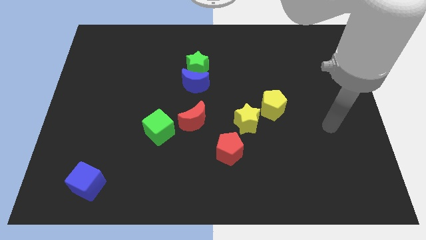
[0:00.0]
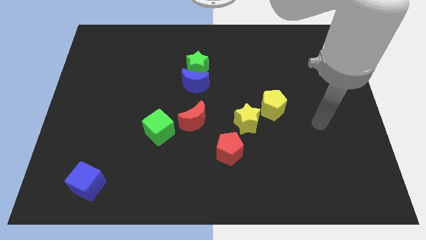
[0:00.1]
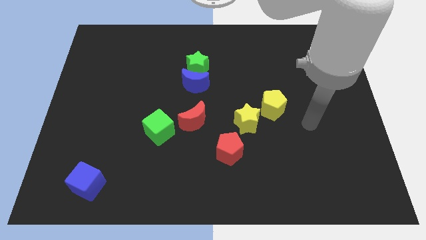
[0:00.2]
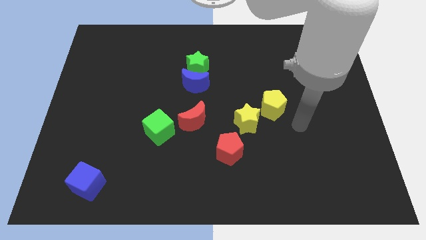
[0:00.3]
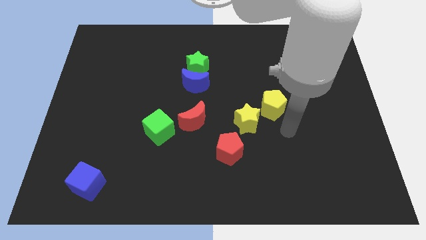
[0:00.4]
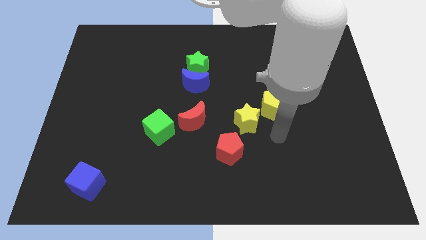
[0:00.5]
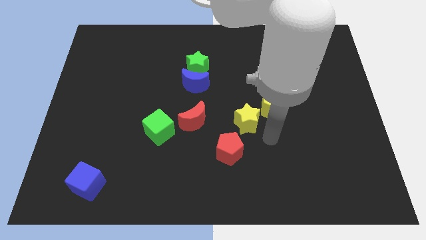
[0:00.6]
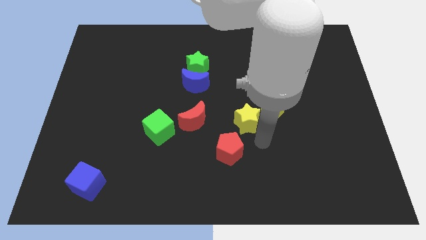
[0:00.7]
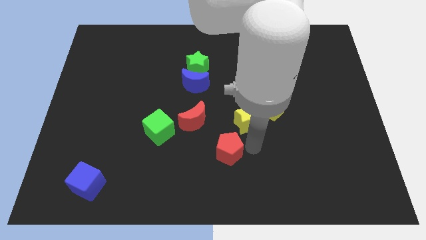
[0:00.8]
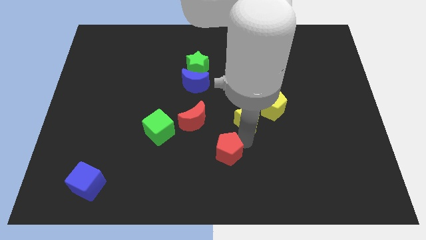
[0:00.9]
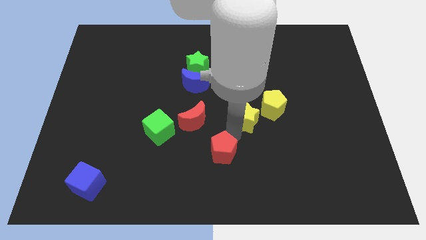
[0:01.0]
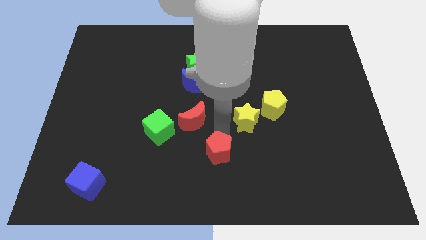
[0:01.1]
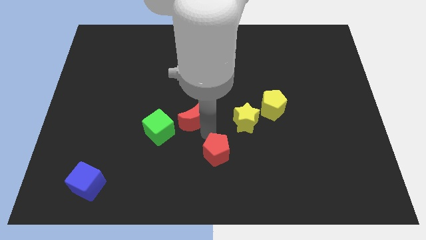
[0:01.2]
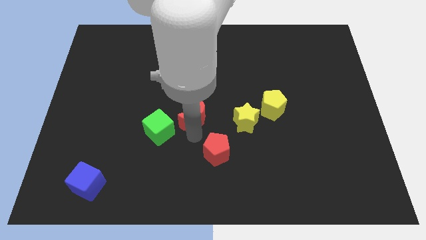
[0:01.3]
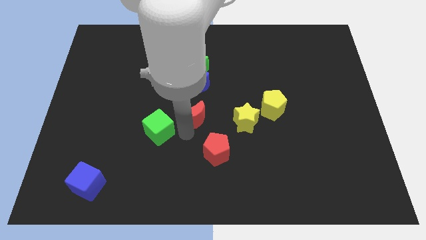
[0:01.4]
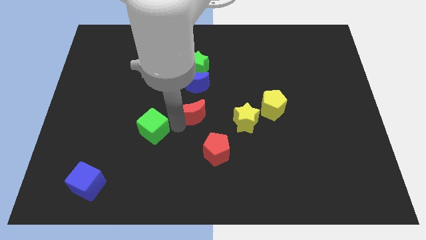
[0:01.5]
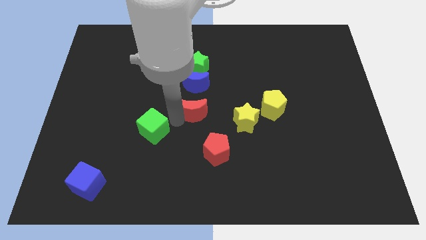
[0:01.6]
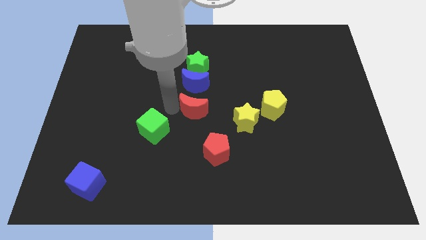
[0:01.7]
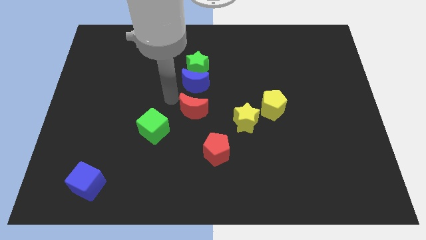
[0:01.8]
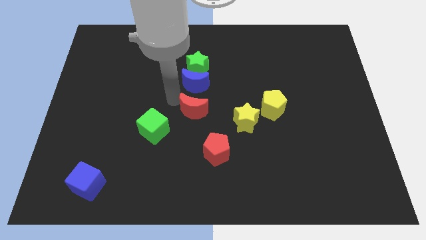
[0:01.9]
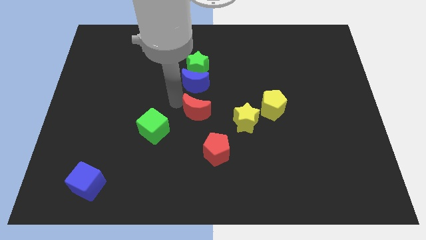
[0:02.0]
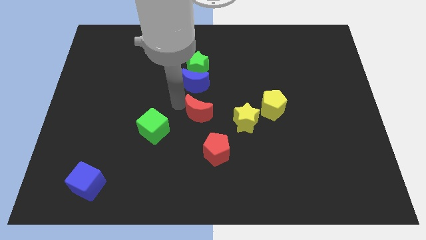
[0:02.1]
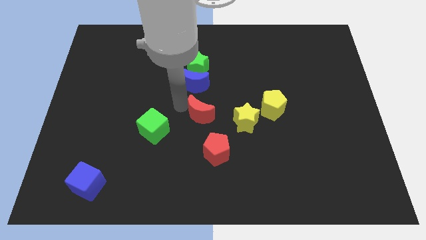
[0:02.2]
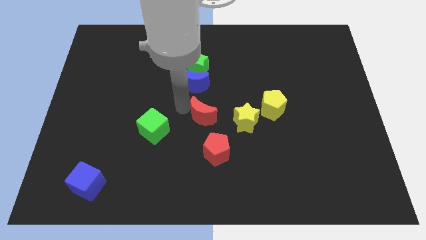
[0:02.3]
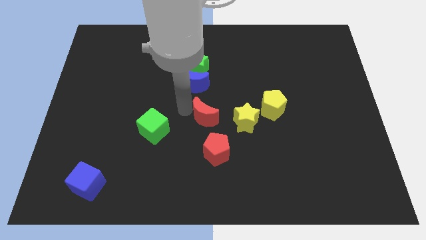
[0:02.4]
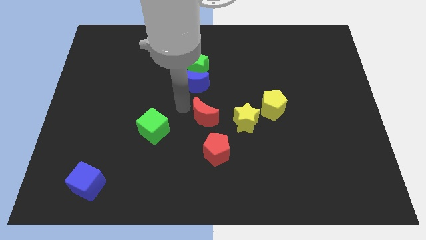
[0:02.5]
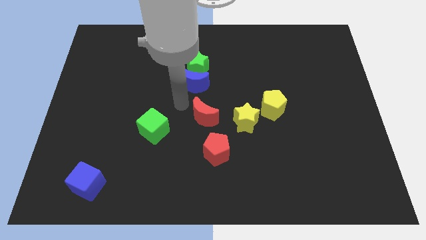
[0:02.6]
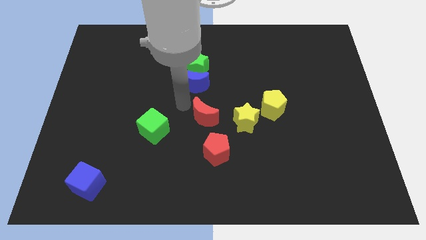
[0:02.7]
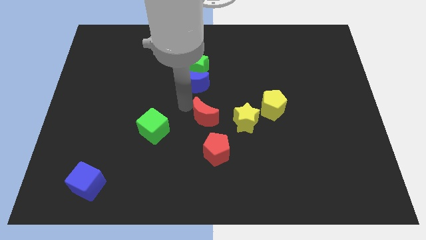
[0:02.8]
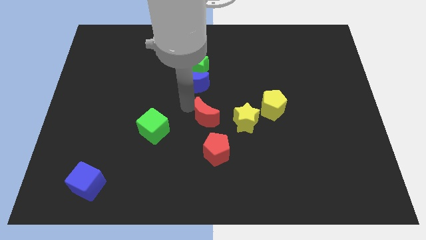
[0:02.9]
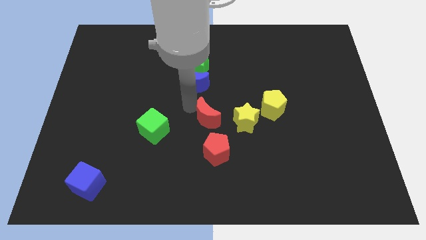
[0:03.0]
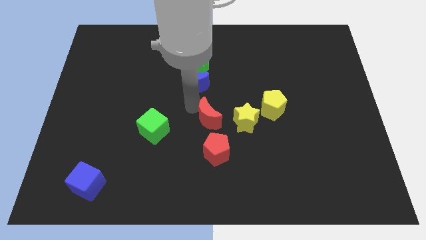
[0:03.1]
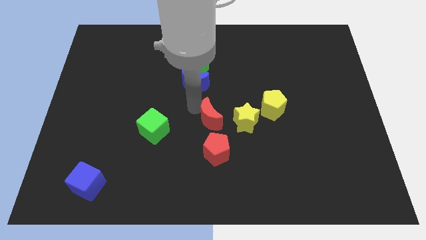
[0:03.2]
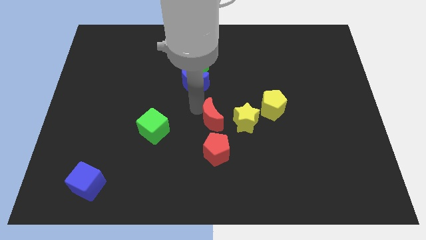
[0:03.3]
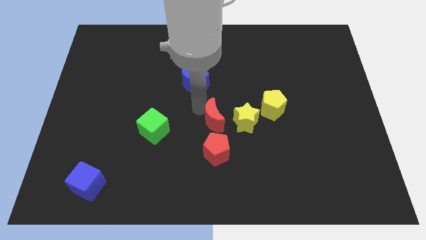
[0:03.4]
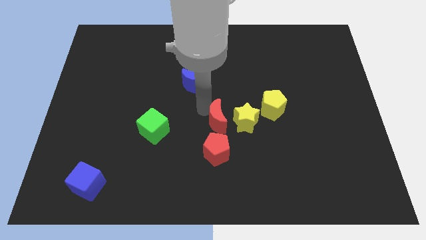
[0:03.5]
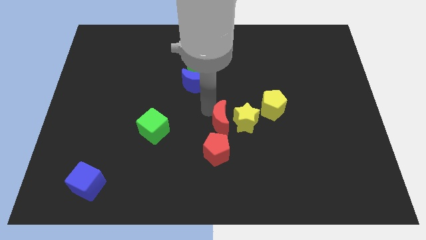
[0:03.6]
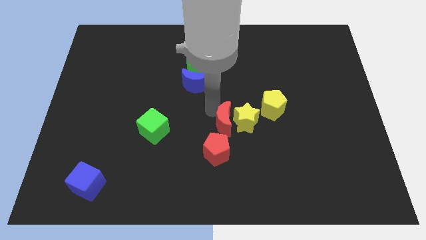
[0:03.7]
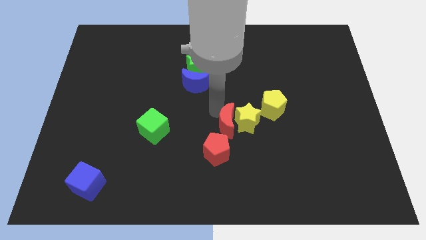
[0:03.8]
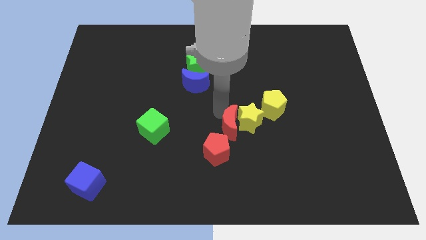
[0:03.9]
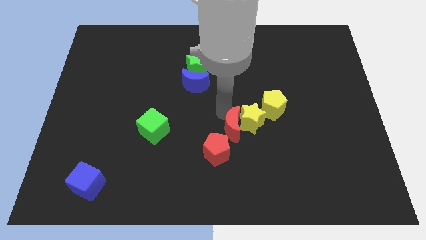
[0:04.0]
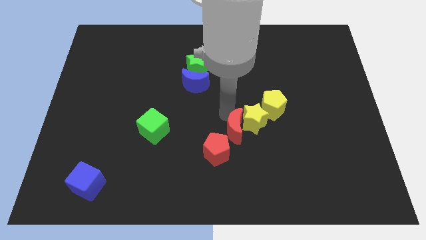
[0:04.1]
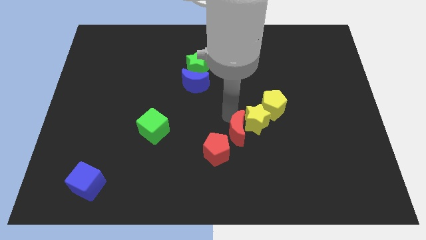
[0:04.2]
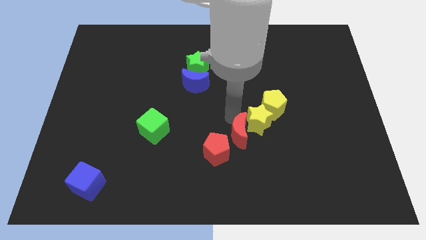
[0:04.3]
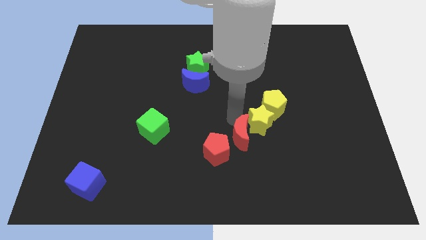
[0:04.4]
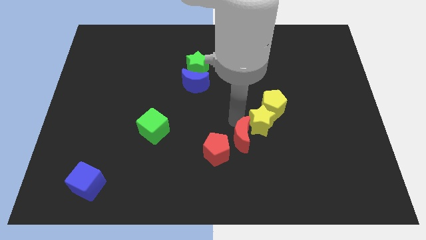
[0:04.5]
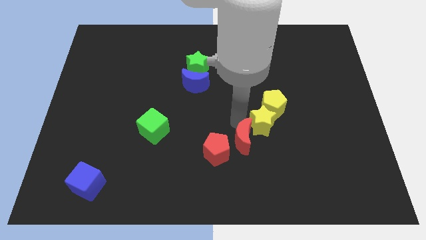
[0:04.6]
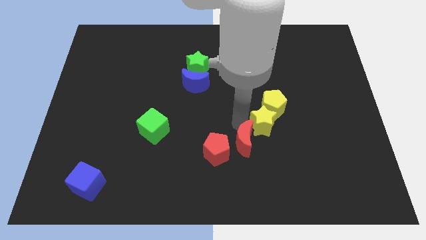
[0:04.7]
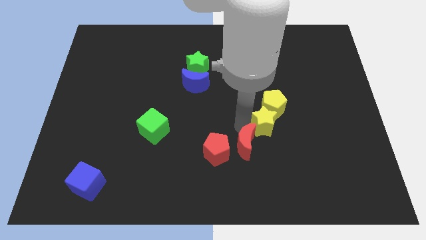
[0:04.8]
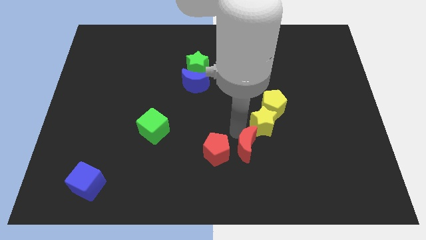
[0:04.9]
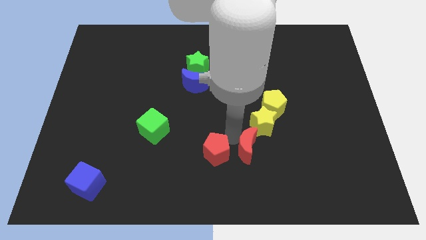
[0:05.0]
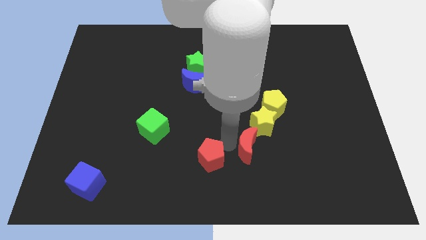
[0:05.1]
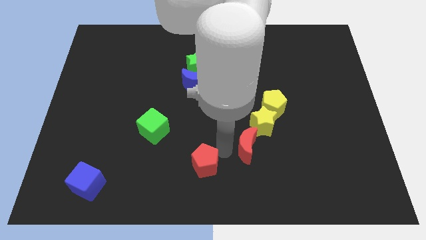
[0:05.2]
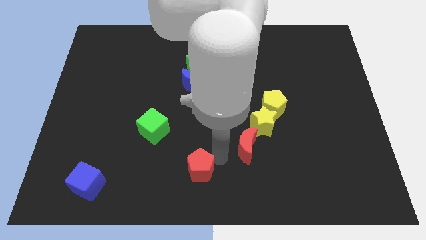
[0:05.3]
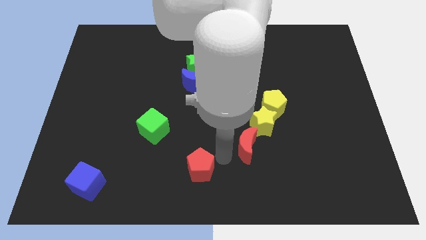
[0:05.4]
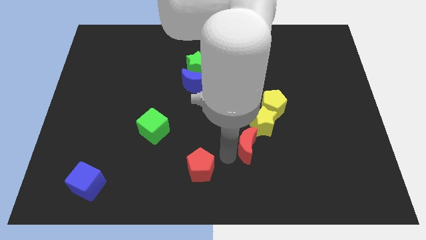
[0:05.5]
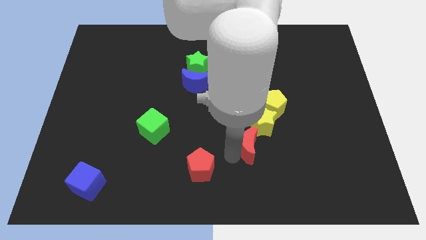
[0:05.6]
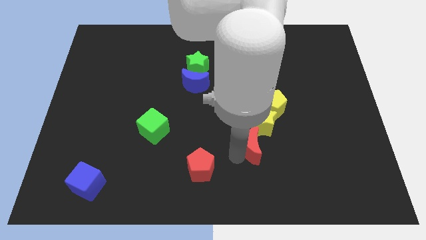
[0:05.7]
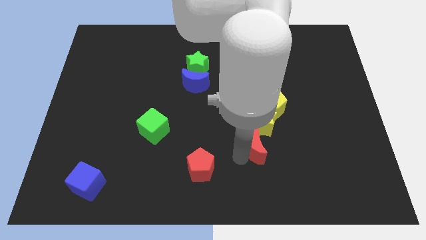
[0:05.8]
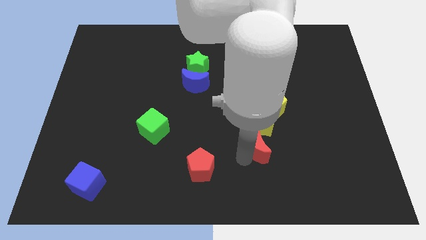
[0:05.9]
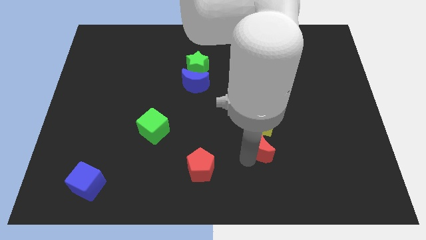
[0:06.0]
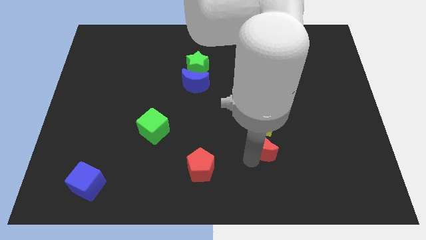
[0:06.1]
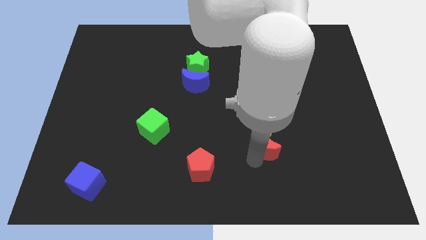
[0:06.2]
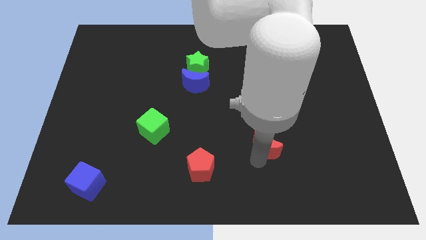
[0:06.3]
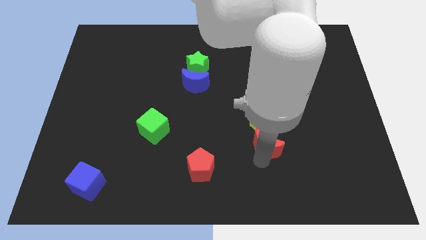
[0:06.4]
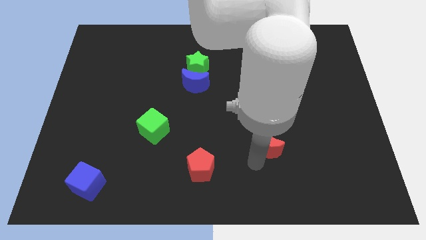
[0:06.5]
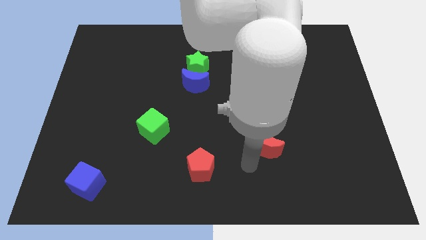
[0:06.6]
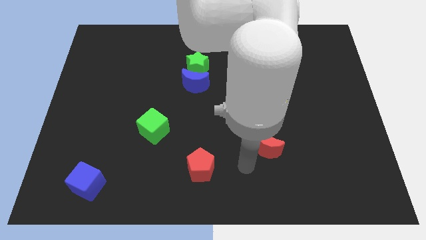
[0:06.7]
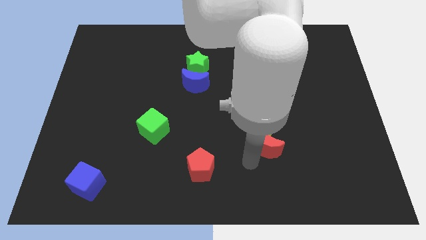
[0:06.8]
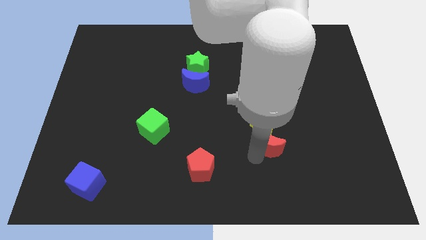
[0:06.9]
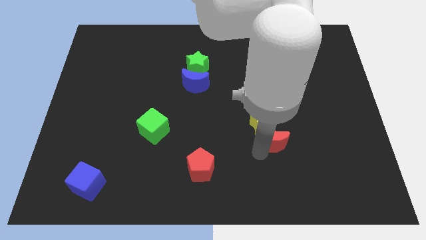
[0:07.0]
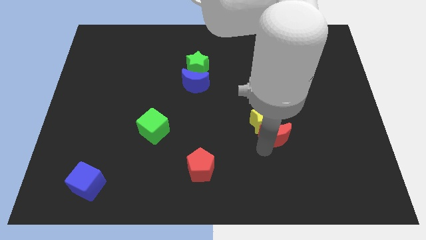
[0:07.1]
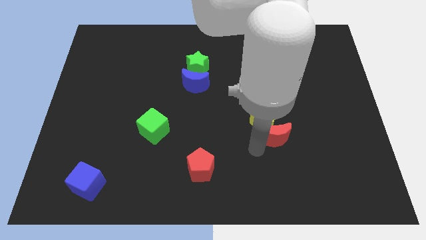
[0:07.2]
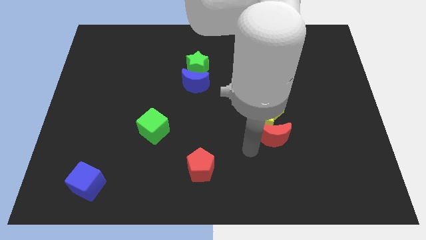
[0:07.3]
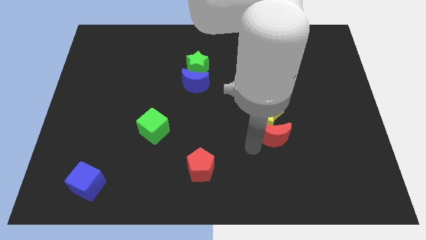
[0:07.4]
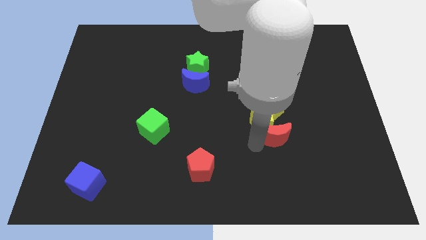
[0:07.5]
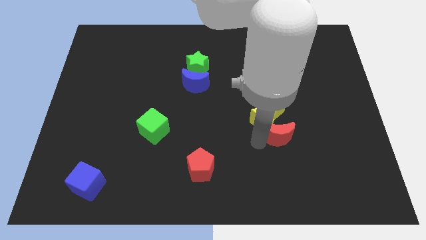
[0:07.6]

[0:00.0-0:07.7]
put the red moon to the right side of the yellow star
